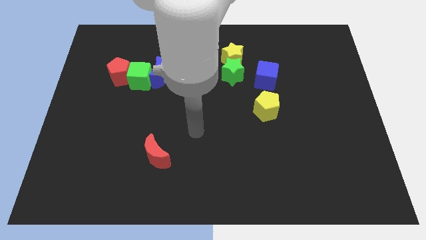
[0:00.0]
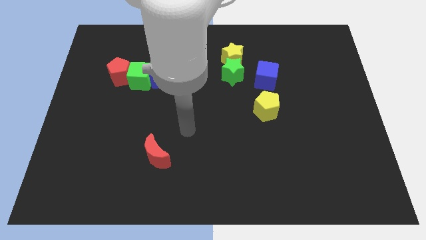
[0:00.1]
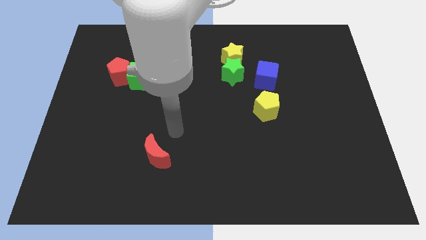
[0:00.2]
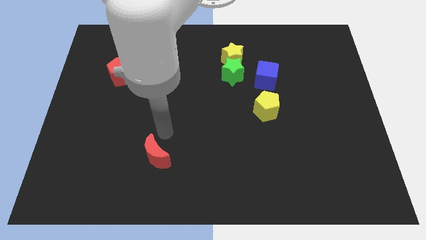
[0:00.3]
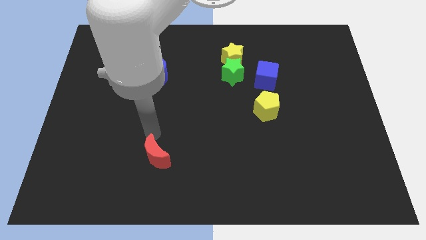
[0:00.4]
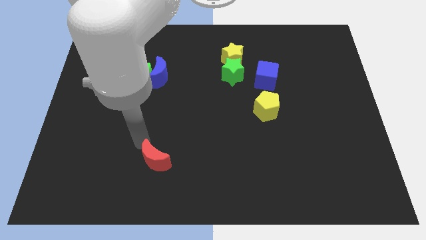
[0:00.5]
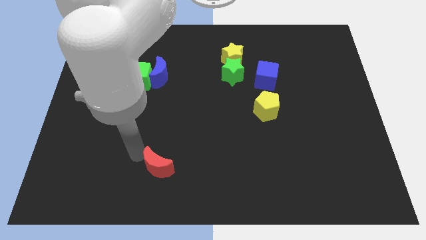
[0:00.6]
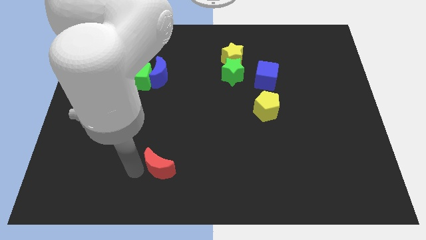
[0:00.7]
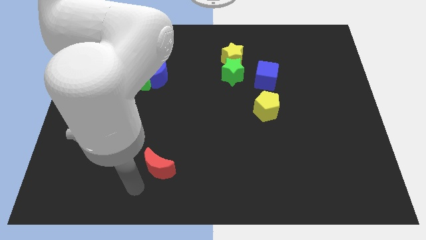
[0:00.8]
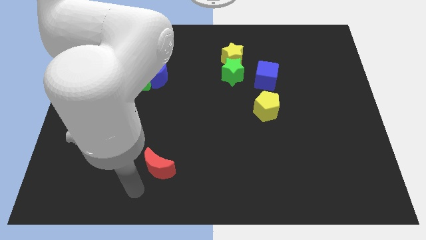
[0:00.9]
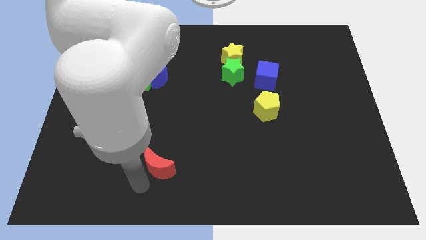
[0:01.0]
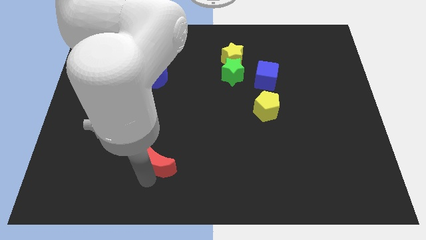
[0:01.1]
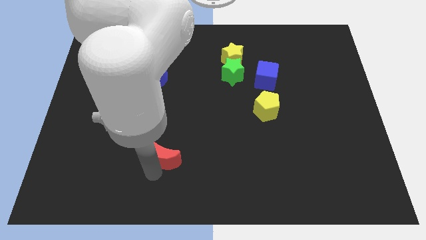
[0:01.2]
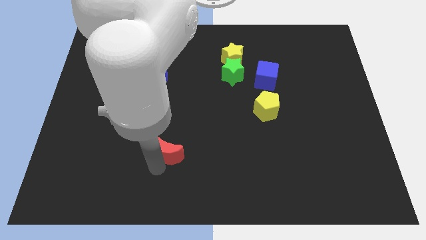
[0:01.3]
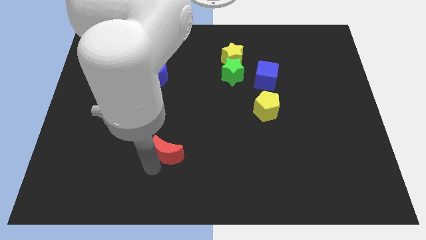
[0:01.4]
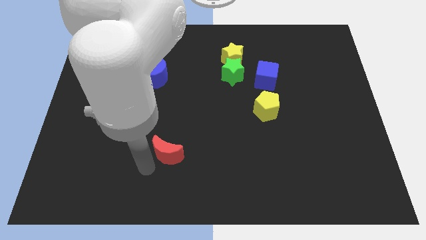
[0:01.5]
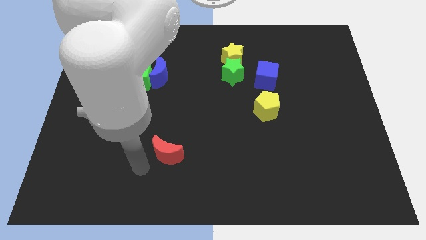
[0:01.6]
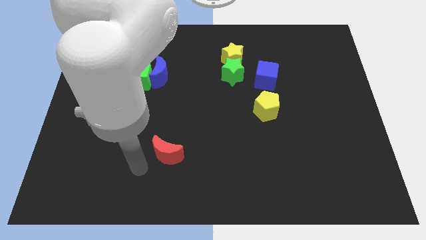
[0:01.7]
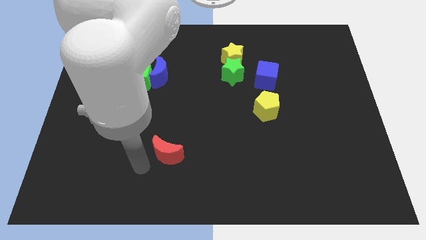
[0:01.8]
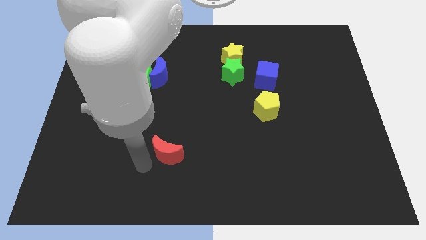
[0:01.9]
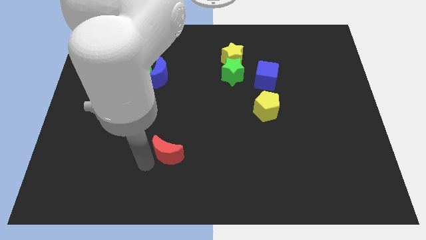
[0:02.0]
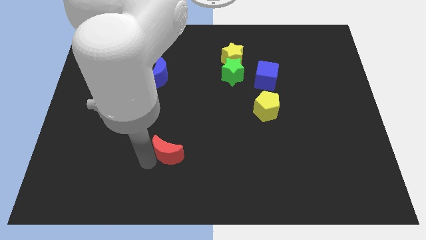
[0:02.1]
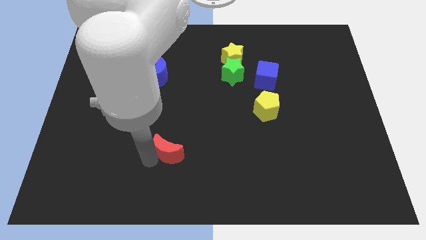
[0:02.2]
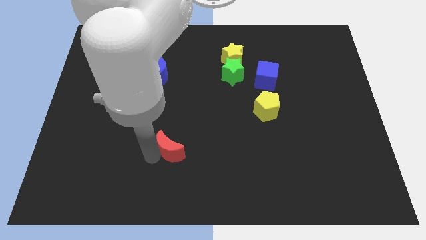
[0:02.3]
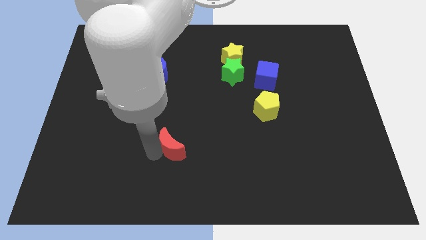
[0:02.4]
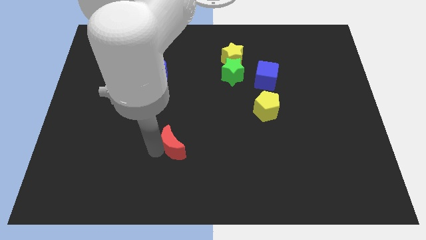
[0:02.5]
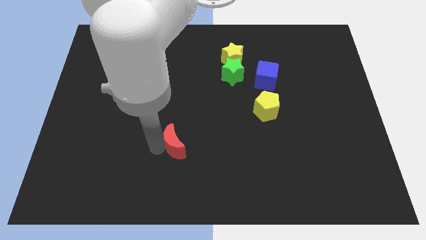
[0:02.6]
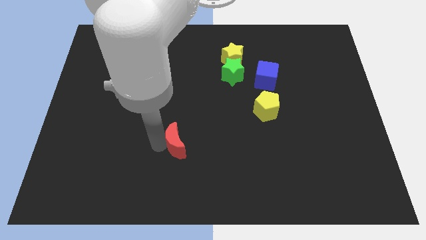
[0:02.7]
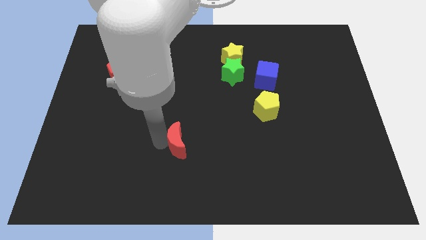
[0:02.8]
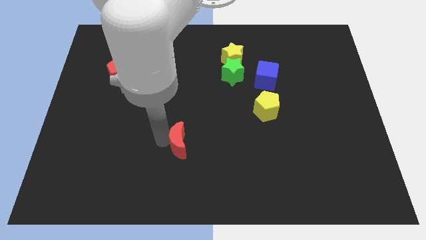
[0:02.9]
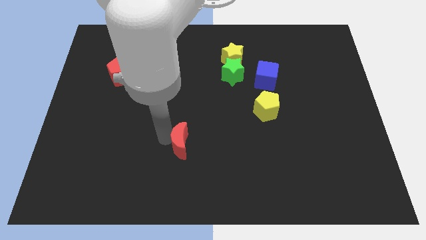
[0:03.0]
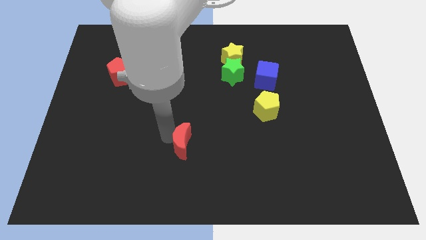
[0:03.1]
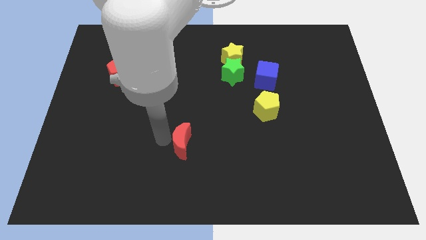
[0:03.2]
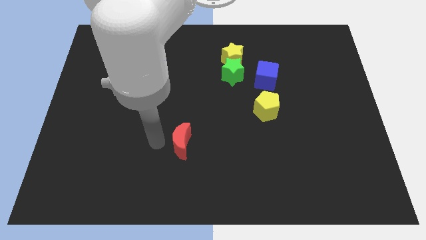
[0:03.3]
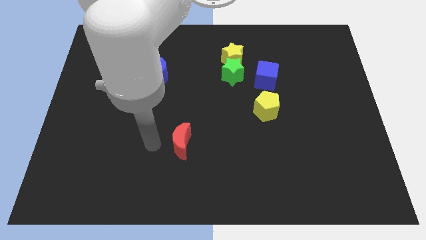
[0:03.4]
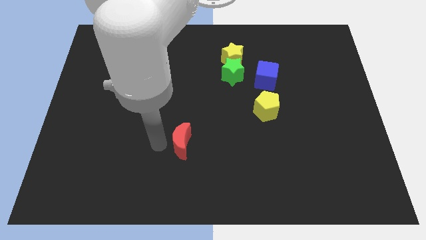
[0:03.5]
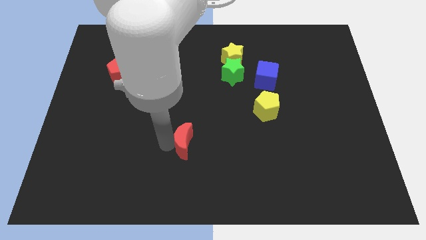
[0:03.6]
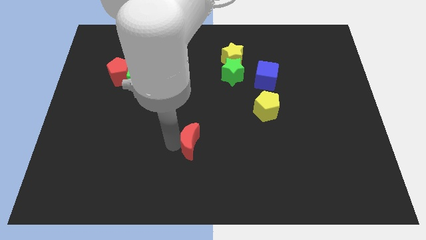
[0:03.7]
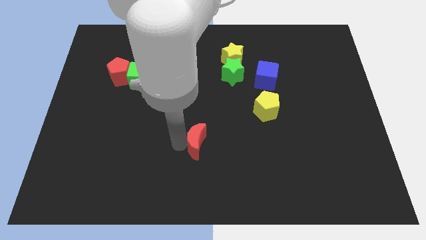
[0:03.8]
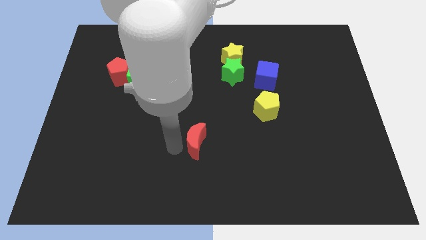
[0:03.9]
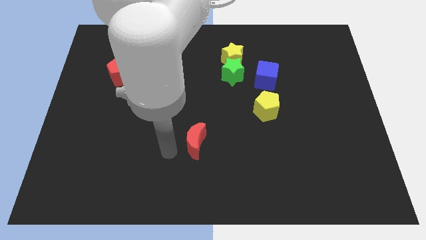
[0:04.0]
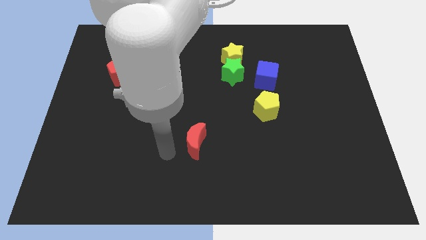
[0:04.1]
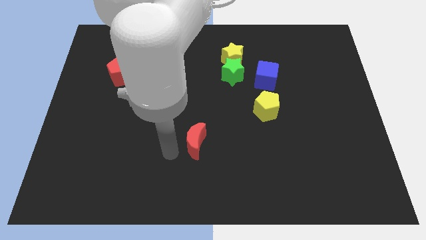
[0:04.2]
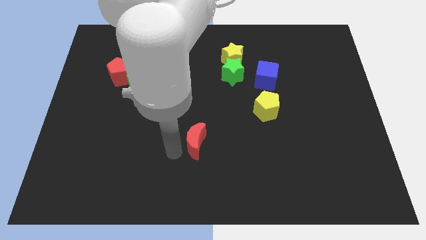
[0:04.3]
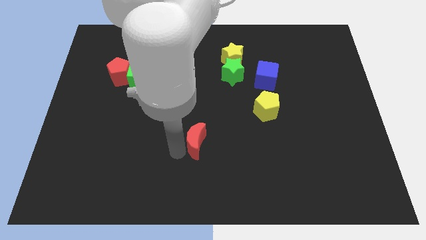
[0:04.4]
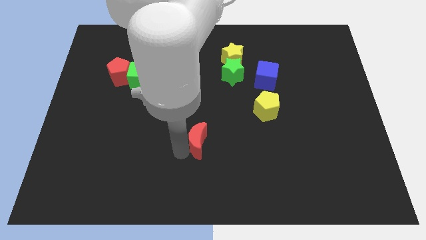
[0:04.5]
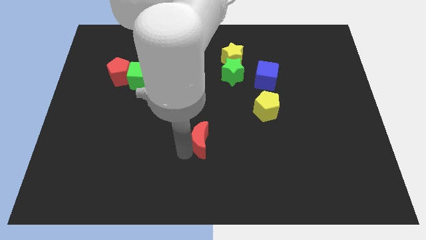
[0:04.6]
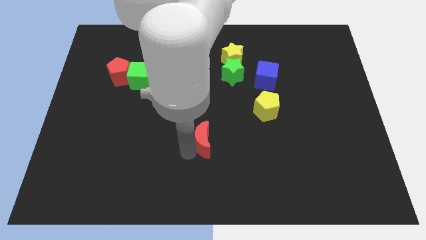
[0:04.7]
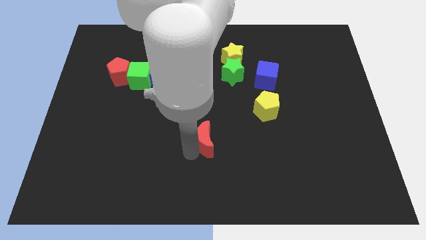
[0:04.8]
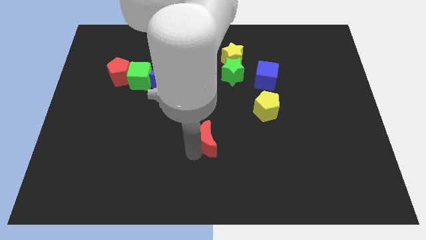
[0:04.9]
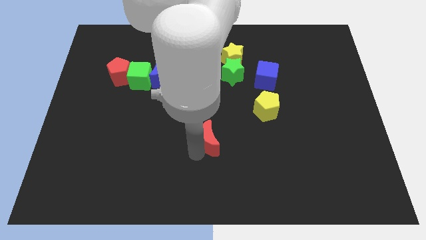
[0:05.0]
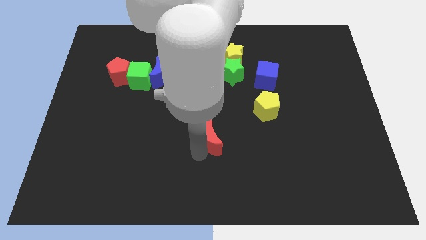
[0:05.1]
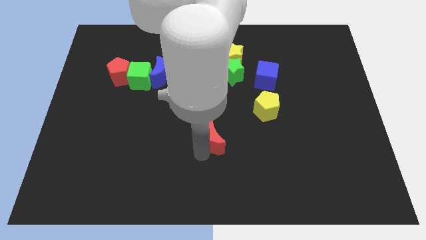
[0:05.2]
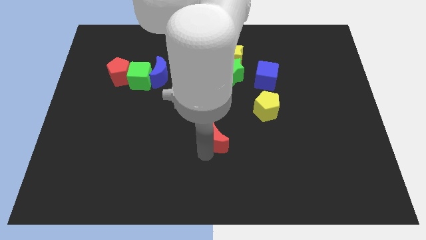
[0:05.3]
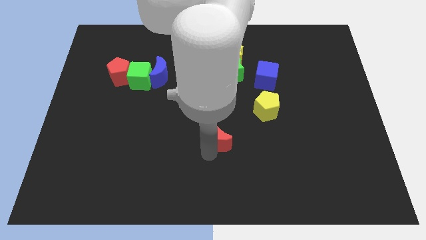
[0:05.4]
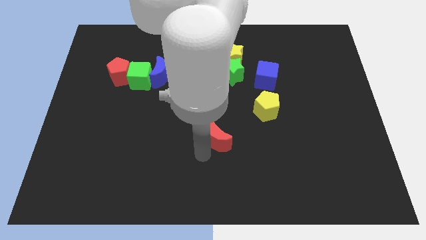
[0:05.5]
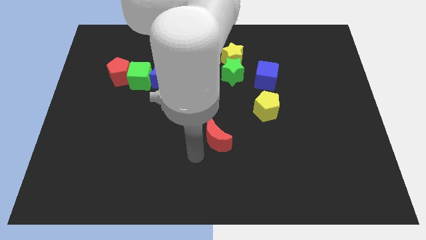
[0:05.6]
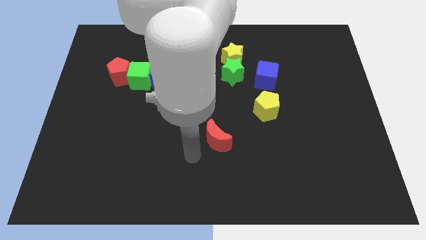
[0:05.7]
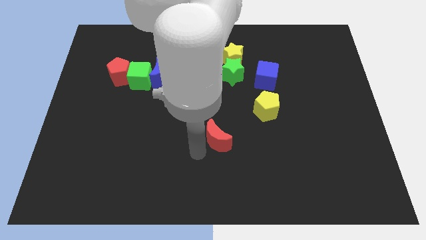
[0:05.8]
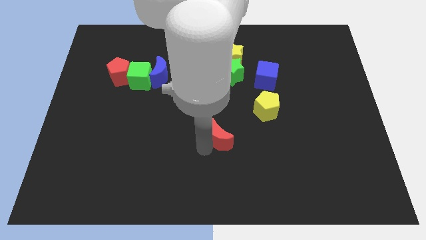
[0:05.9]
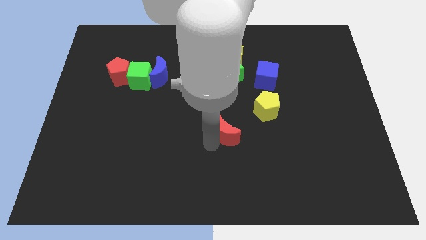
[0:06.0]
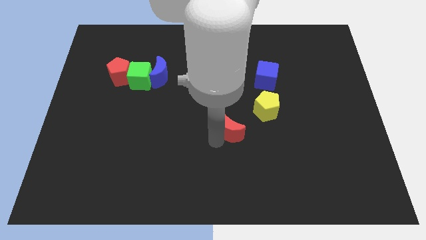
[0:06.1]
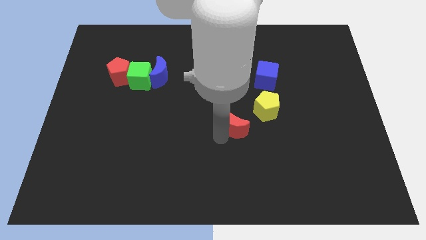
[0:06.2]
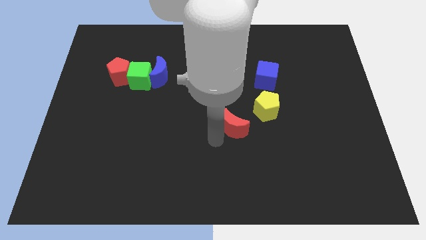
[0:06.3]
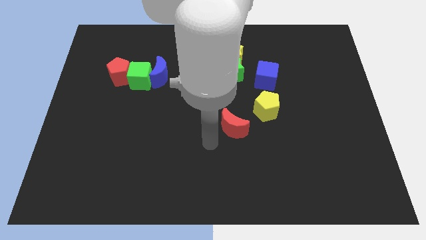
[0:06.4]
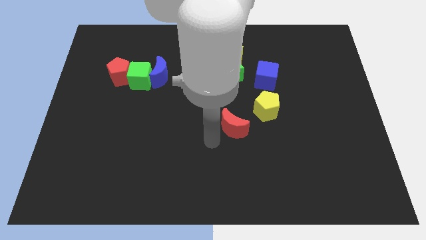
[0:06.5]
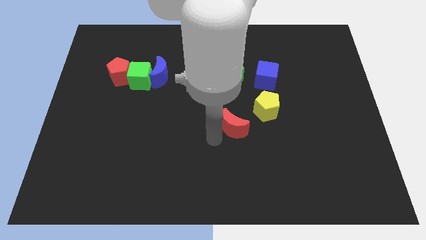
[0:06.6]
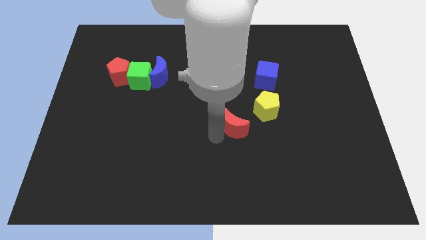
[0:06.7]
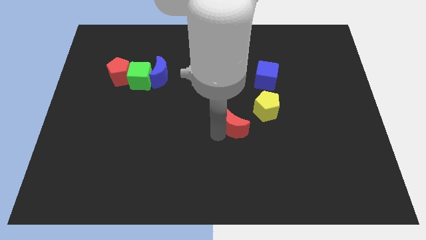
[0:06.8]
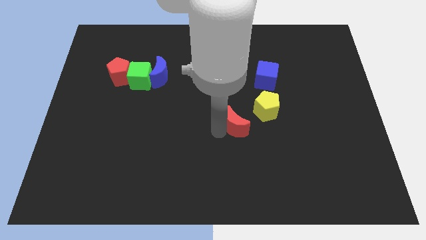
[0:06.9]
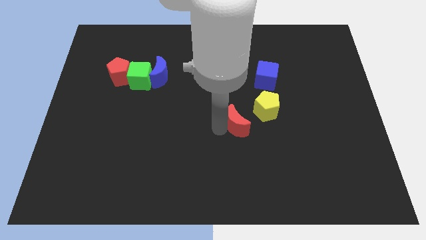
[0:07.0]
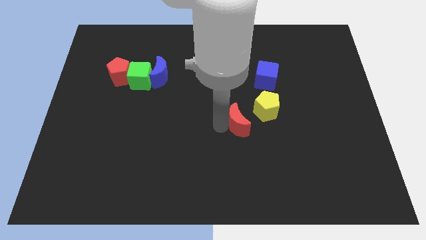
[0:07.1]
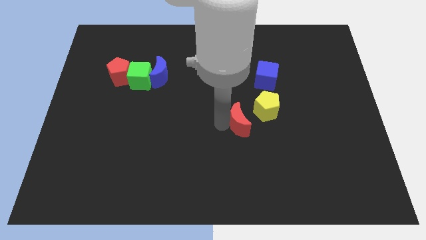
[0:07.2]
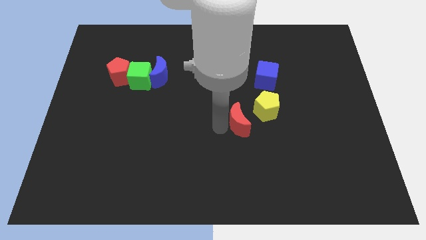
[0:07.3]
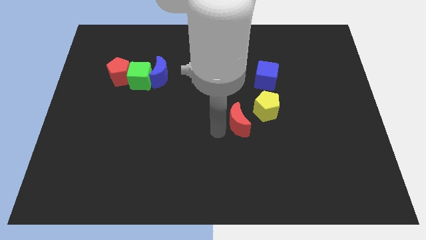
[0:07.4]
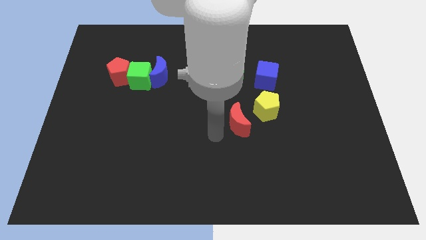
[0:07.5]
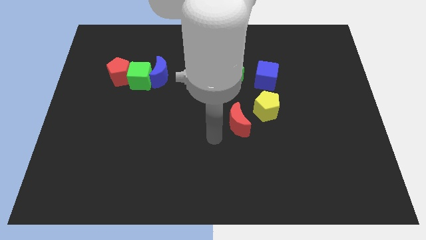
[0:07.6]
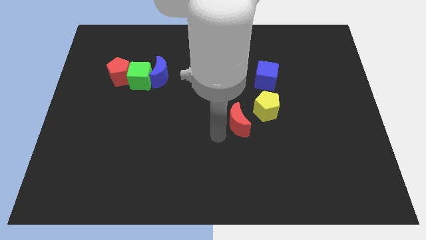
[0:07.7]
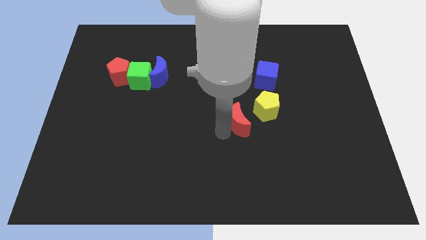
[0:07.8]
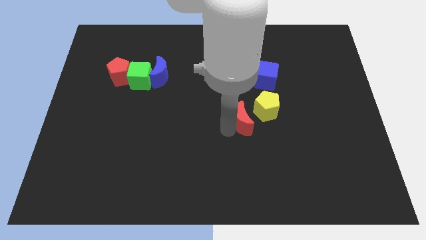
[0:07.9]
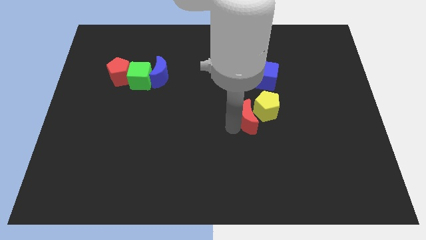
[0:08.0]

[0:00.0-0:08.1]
push the red moon next to the yellow pentagon
